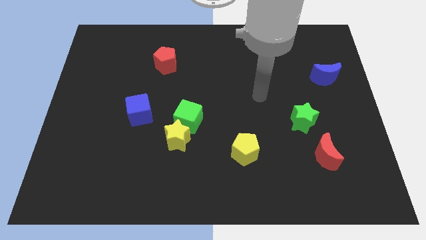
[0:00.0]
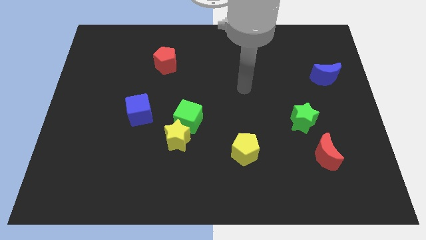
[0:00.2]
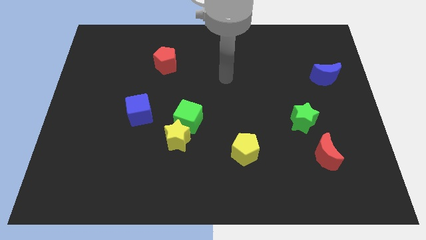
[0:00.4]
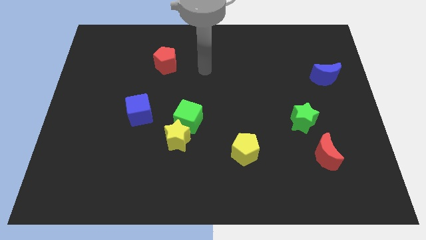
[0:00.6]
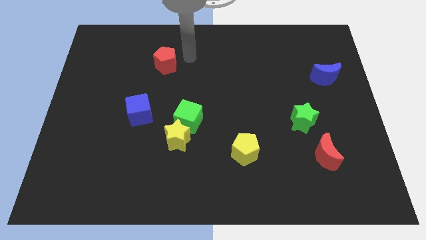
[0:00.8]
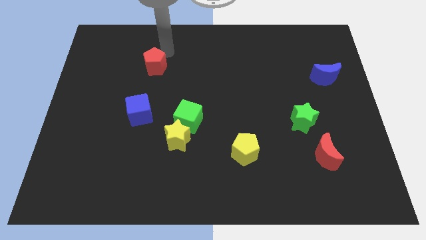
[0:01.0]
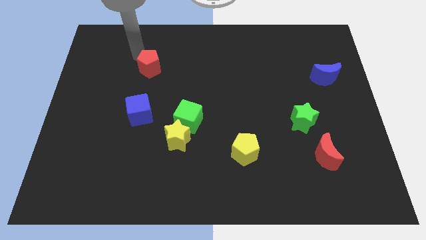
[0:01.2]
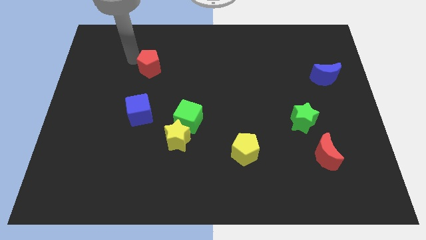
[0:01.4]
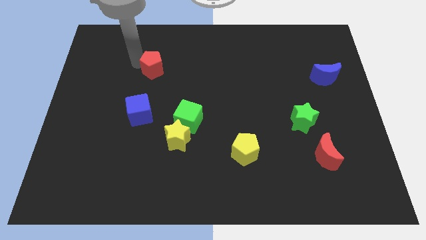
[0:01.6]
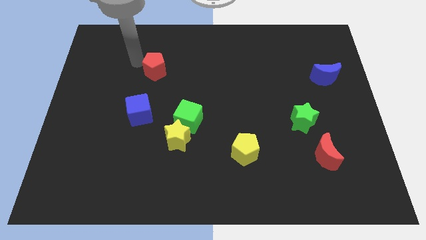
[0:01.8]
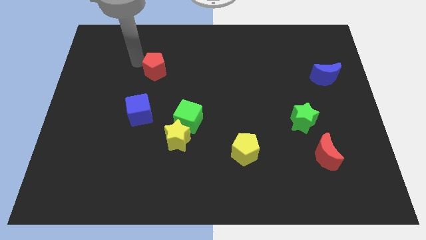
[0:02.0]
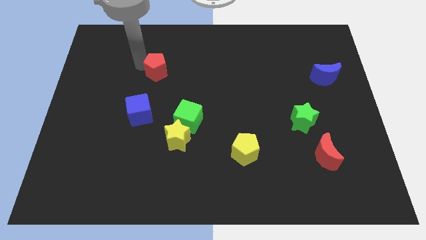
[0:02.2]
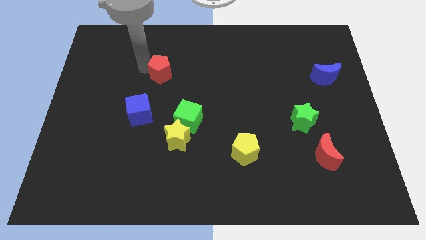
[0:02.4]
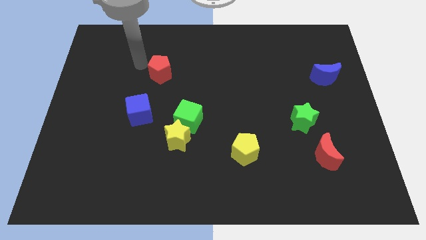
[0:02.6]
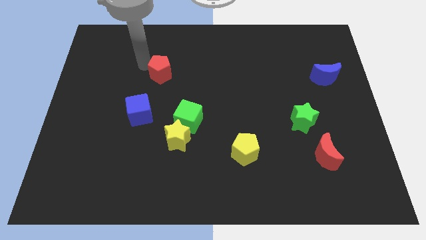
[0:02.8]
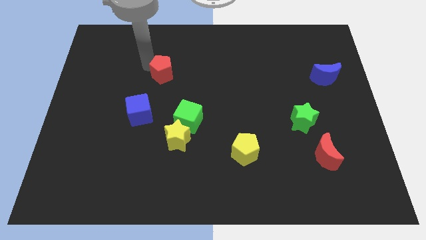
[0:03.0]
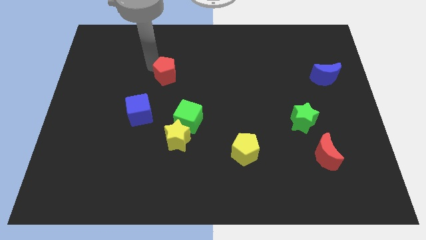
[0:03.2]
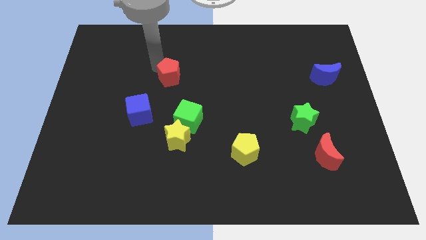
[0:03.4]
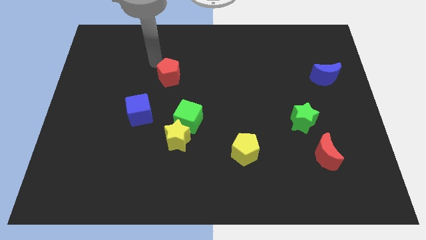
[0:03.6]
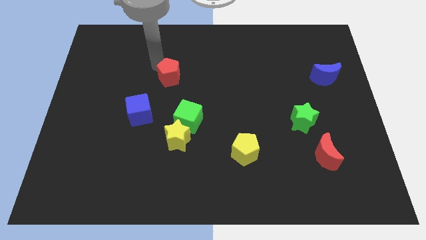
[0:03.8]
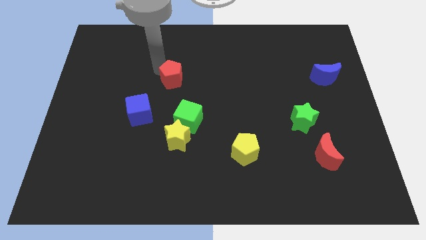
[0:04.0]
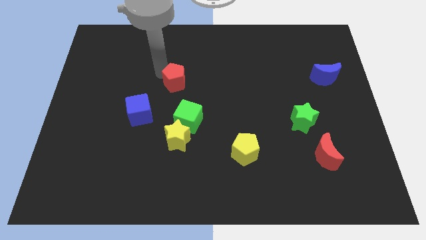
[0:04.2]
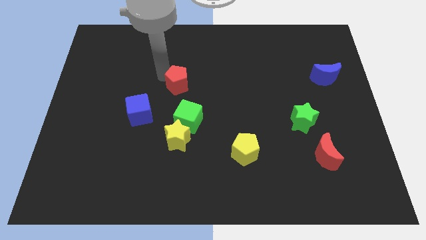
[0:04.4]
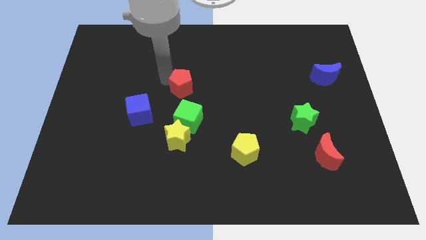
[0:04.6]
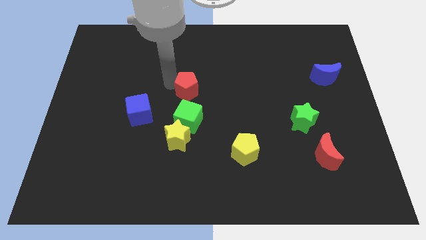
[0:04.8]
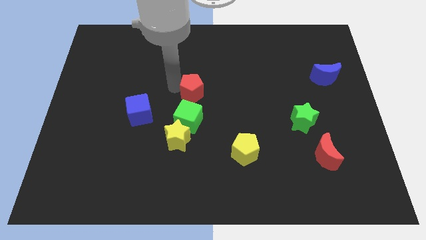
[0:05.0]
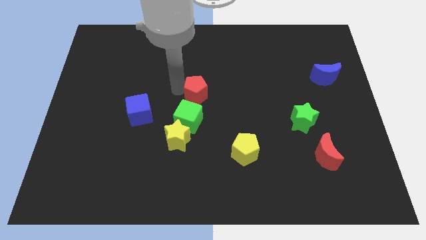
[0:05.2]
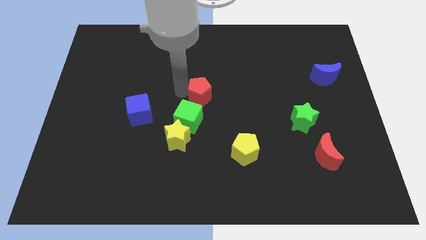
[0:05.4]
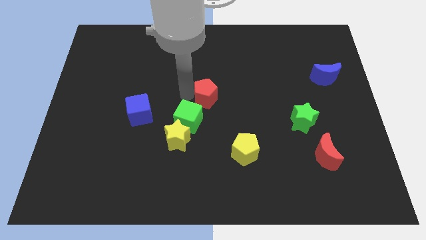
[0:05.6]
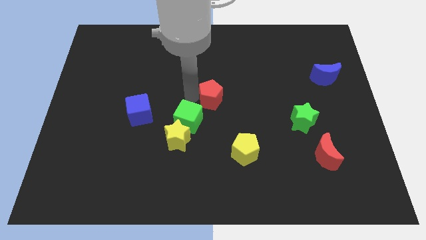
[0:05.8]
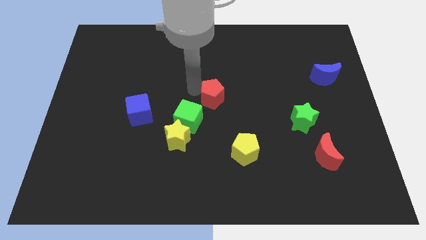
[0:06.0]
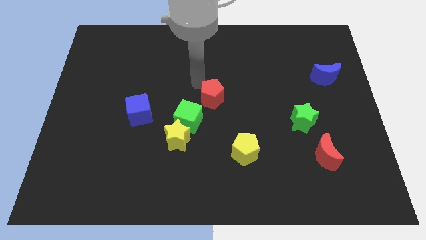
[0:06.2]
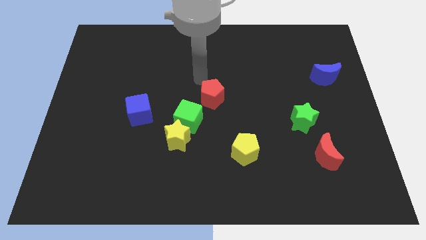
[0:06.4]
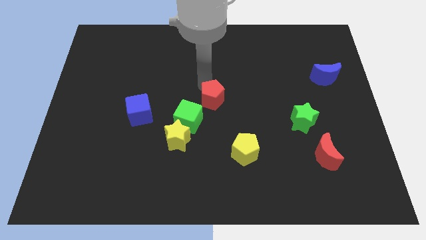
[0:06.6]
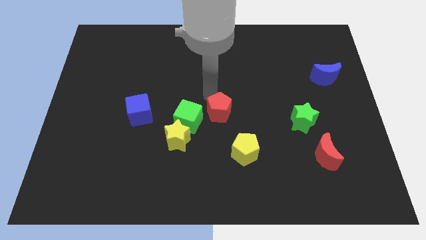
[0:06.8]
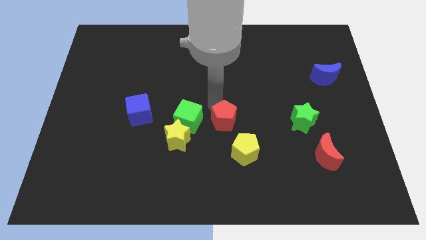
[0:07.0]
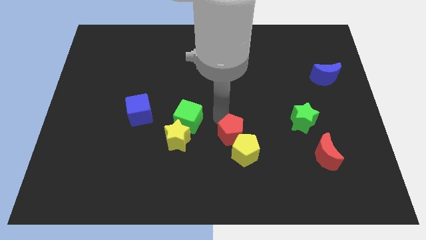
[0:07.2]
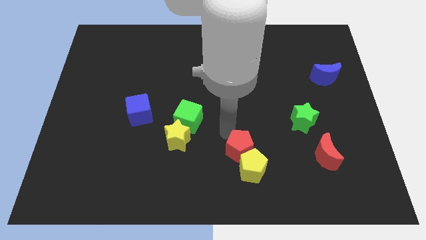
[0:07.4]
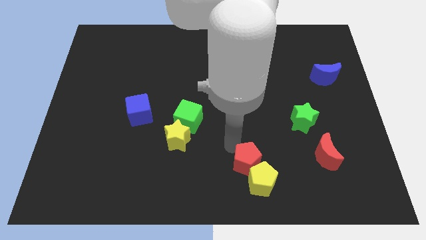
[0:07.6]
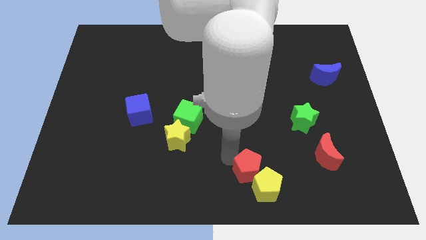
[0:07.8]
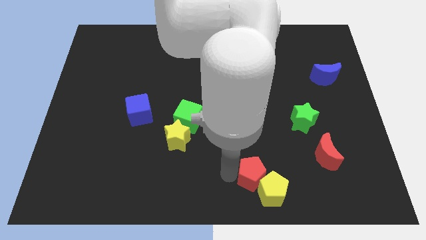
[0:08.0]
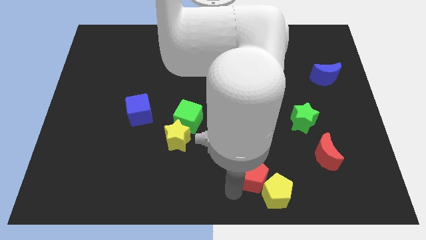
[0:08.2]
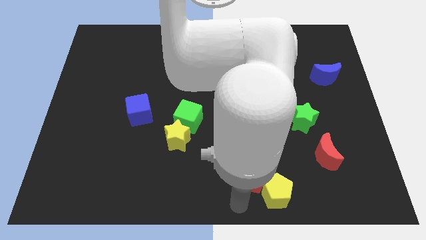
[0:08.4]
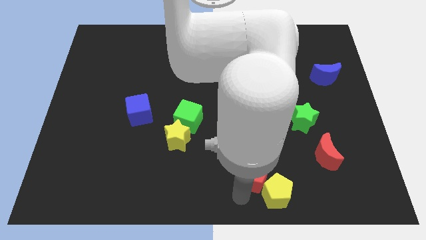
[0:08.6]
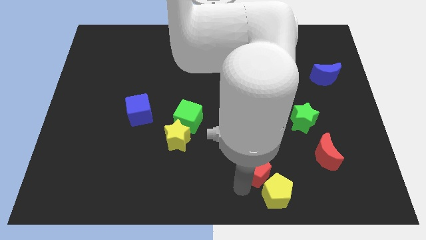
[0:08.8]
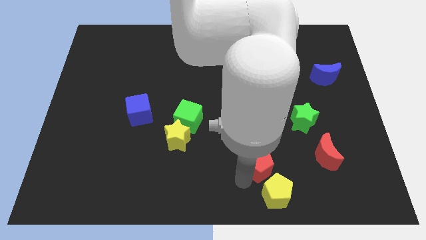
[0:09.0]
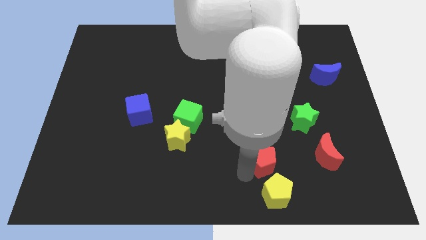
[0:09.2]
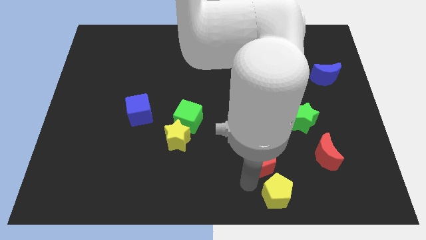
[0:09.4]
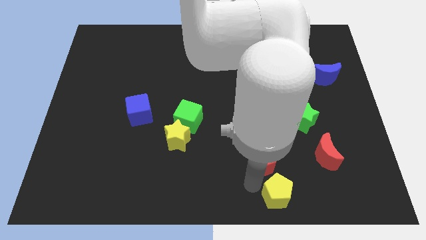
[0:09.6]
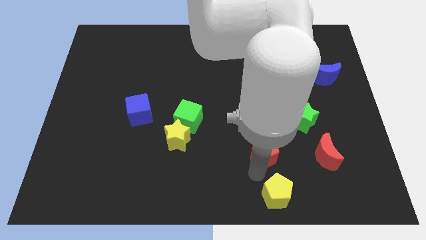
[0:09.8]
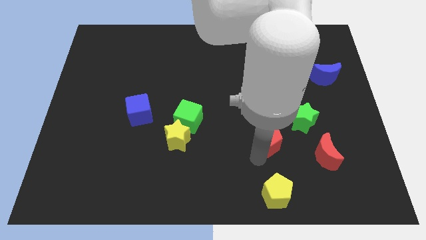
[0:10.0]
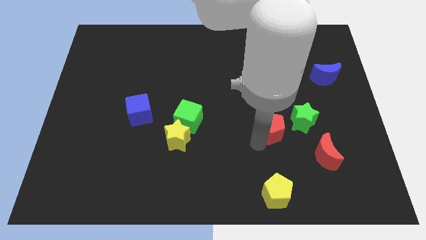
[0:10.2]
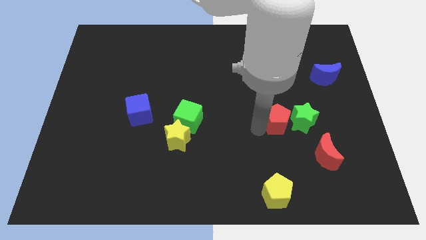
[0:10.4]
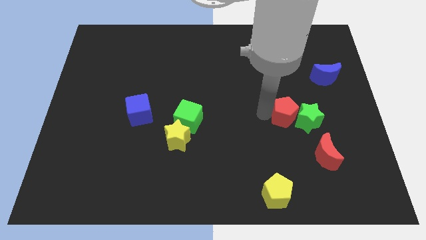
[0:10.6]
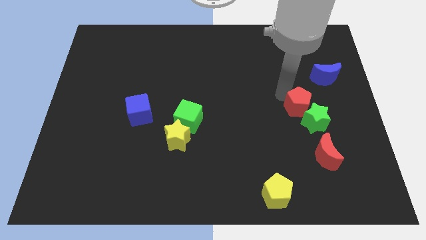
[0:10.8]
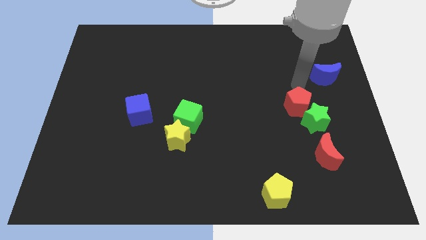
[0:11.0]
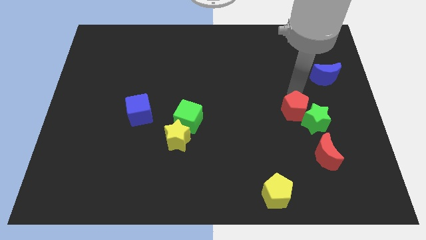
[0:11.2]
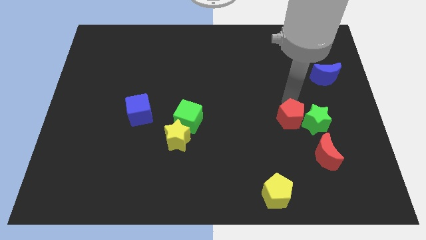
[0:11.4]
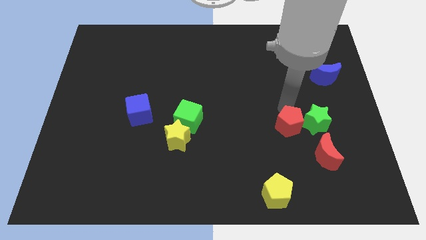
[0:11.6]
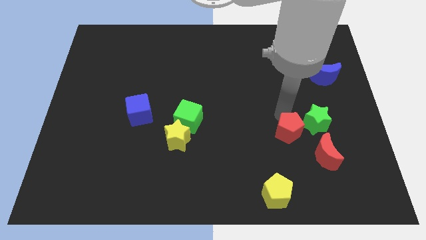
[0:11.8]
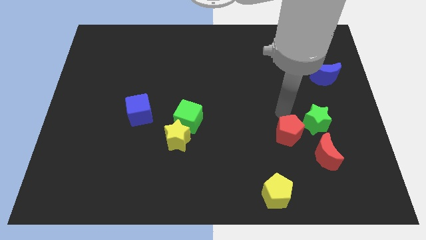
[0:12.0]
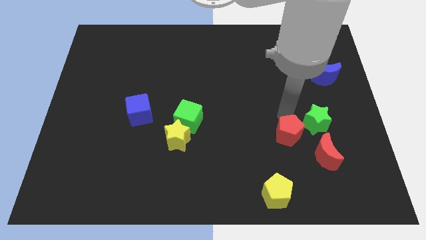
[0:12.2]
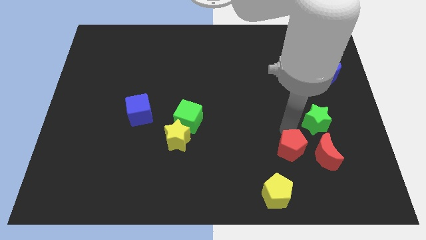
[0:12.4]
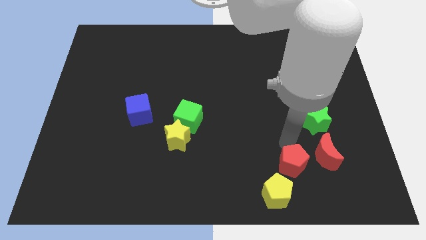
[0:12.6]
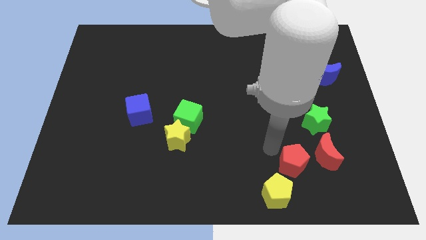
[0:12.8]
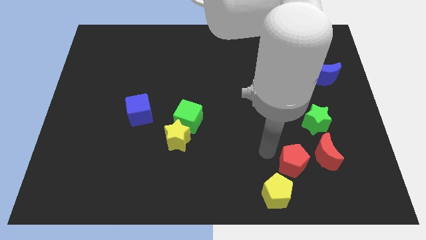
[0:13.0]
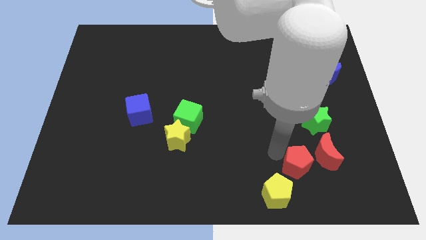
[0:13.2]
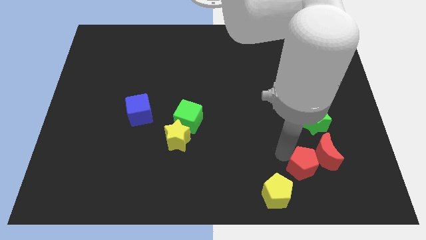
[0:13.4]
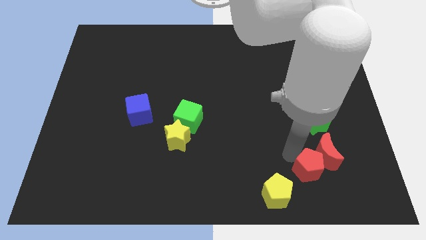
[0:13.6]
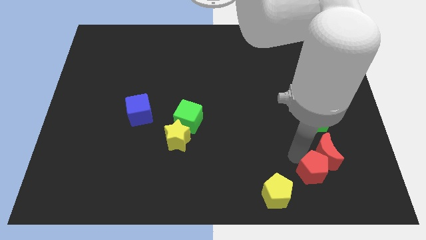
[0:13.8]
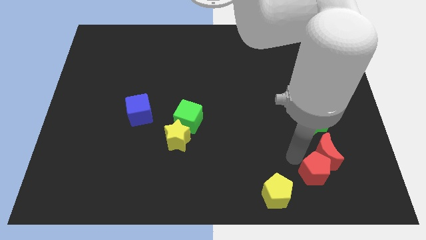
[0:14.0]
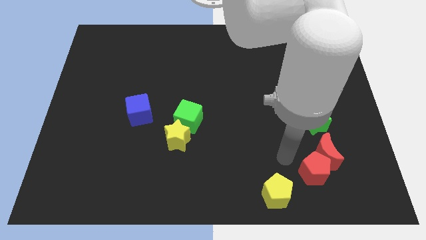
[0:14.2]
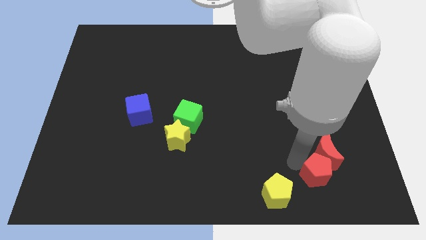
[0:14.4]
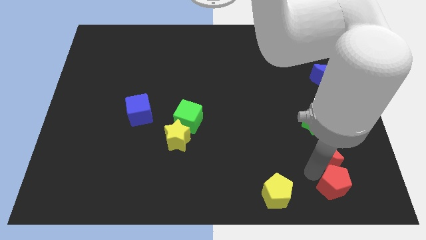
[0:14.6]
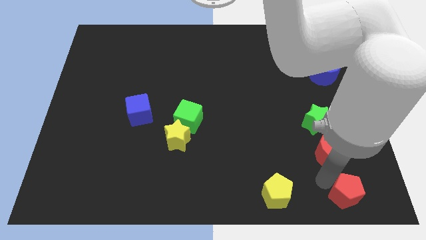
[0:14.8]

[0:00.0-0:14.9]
push the red pentagon to the bottom right corner
